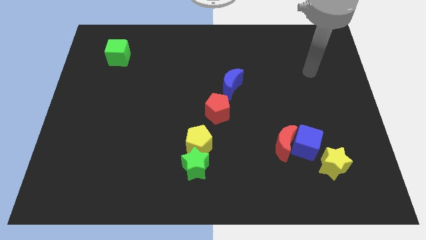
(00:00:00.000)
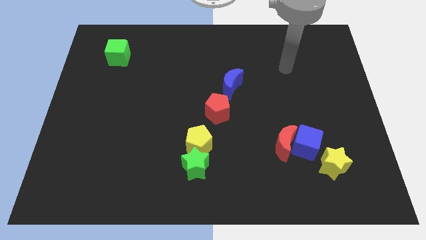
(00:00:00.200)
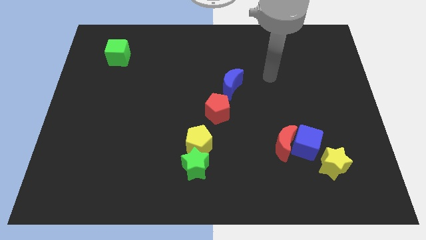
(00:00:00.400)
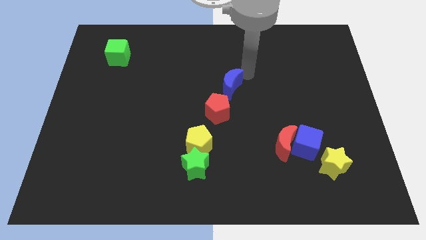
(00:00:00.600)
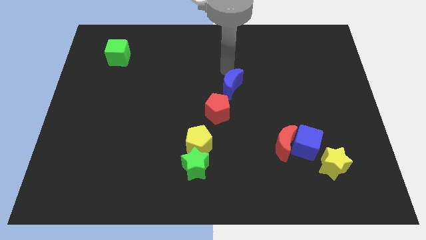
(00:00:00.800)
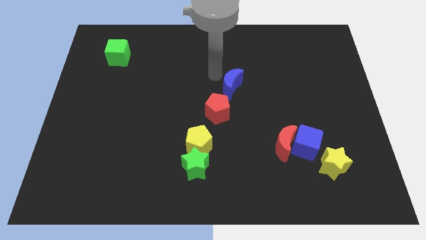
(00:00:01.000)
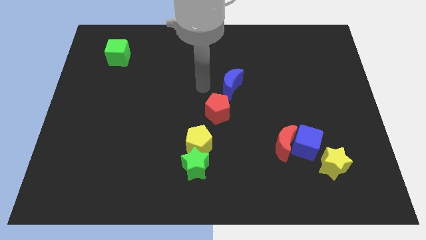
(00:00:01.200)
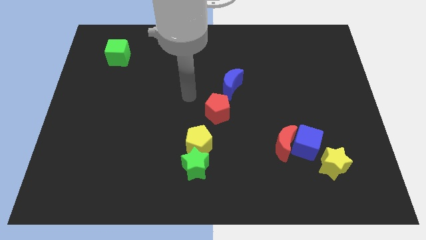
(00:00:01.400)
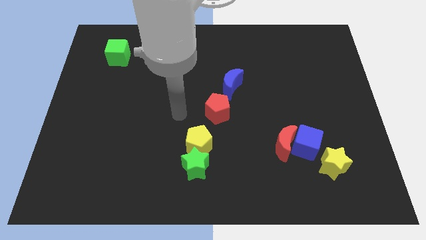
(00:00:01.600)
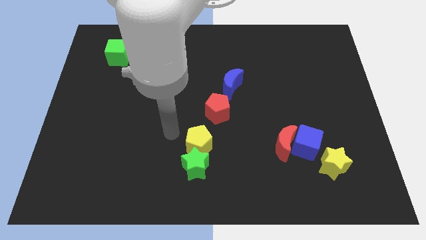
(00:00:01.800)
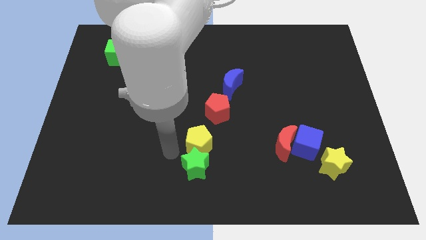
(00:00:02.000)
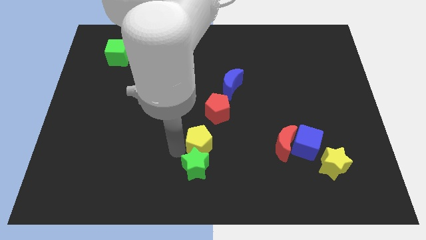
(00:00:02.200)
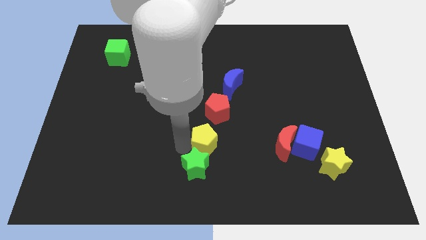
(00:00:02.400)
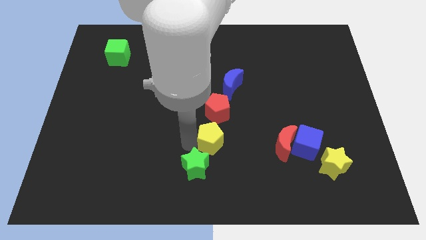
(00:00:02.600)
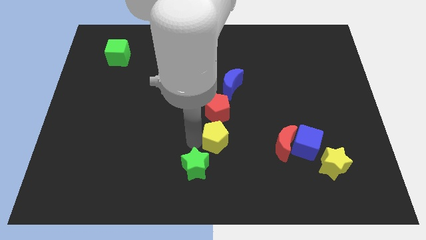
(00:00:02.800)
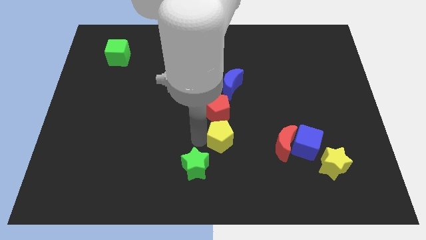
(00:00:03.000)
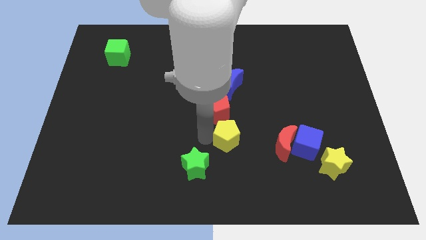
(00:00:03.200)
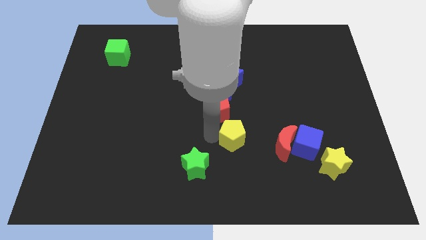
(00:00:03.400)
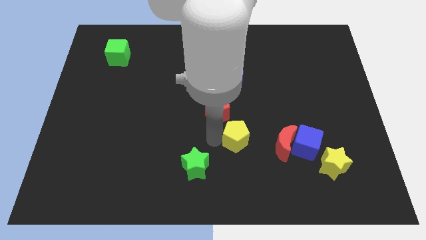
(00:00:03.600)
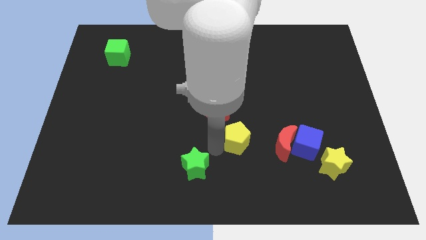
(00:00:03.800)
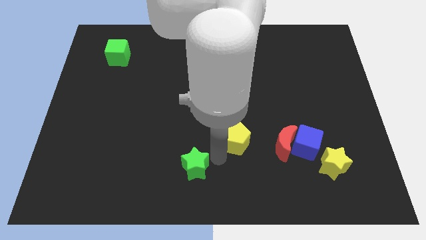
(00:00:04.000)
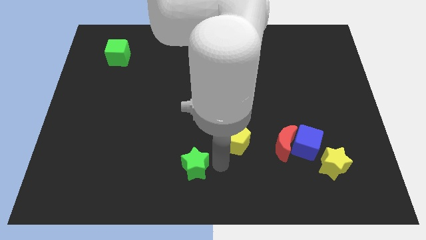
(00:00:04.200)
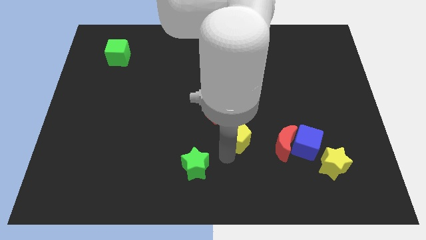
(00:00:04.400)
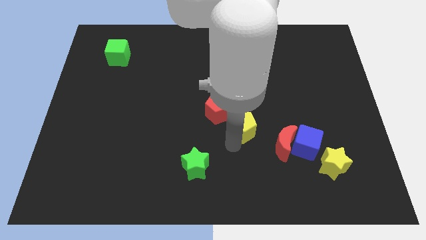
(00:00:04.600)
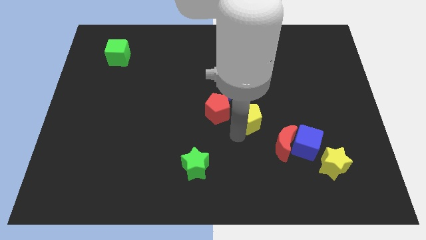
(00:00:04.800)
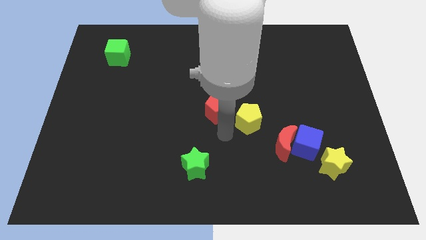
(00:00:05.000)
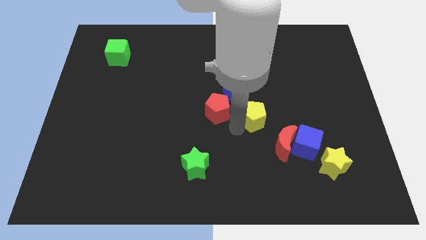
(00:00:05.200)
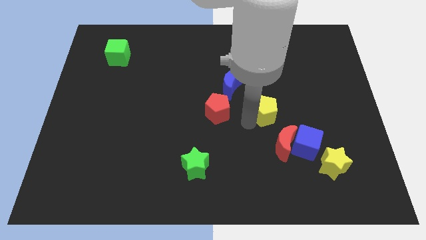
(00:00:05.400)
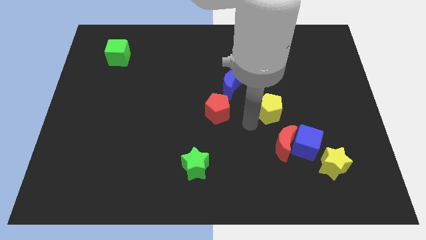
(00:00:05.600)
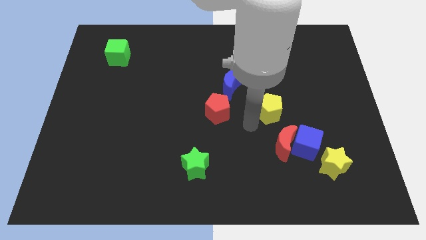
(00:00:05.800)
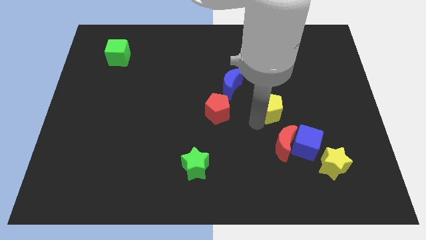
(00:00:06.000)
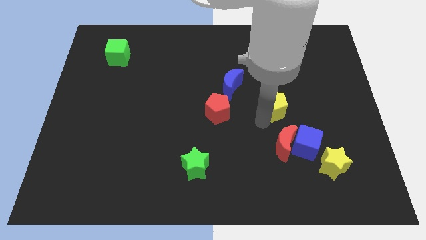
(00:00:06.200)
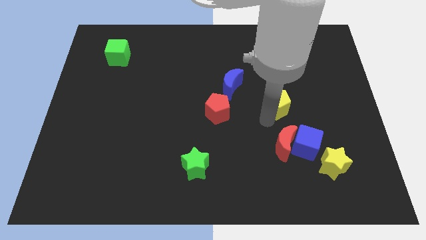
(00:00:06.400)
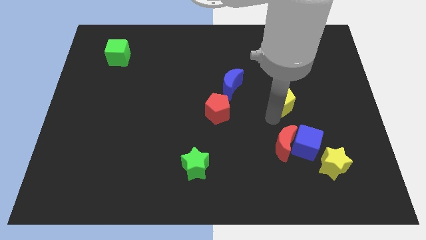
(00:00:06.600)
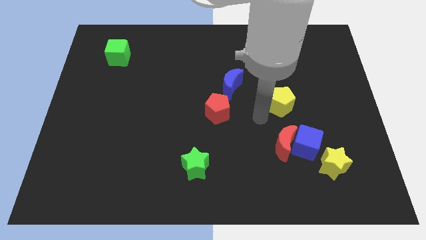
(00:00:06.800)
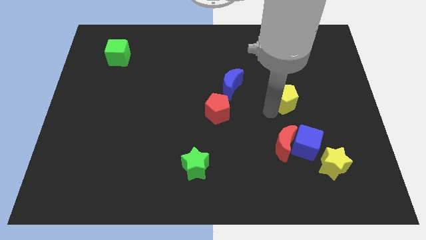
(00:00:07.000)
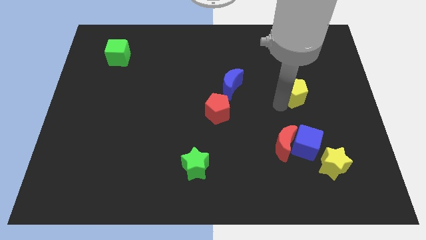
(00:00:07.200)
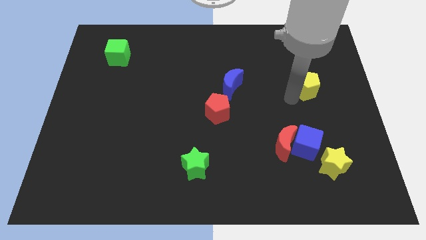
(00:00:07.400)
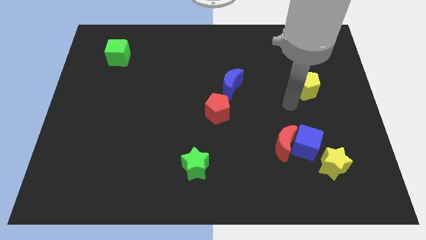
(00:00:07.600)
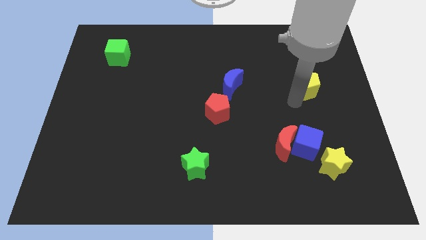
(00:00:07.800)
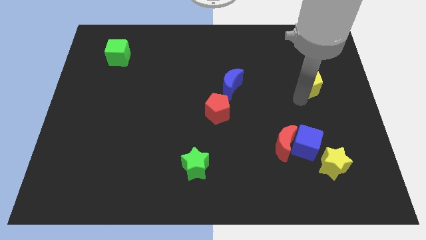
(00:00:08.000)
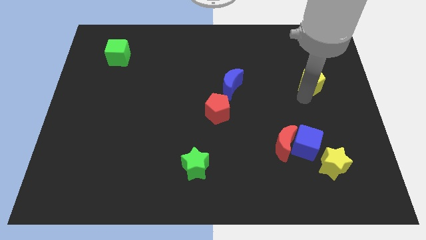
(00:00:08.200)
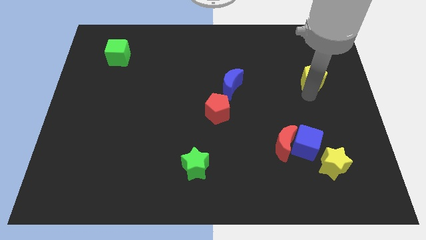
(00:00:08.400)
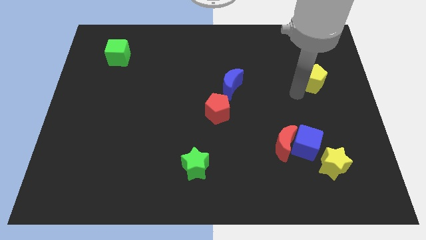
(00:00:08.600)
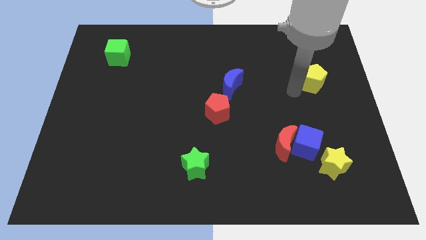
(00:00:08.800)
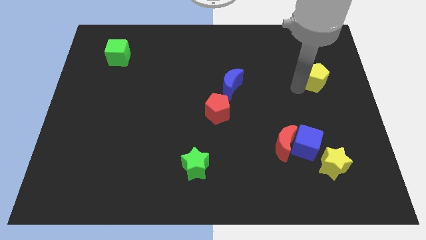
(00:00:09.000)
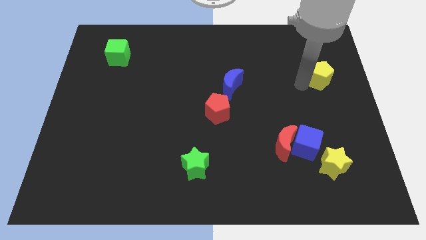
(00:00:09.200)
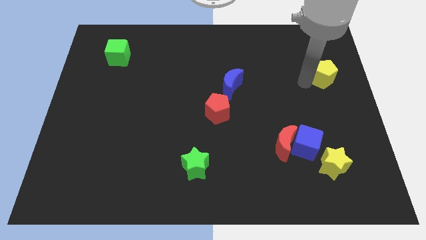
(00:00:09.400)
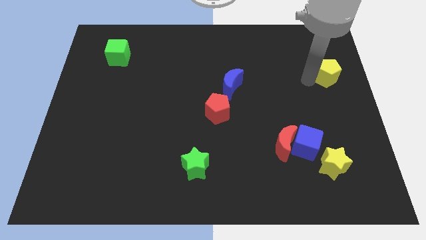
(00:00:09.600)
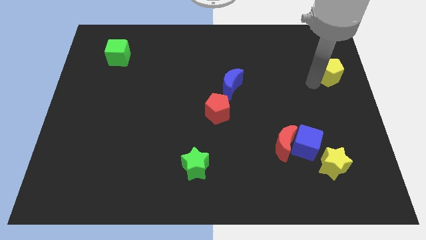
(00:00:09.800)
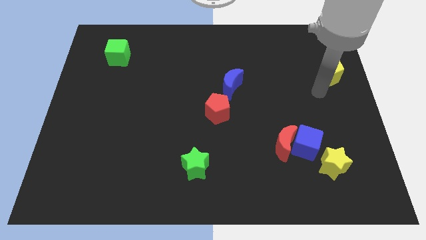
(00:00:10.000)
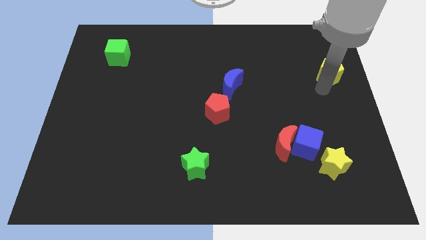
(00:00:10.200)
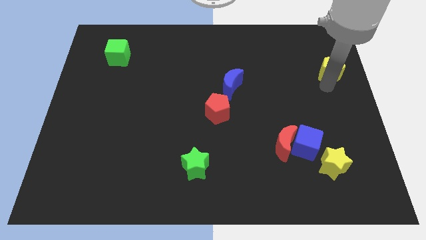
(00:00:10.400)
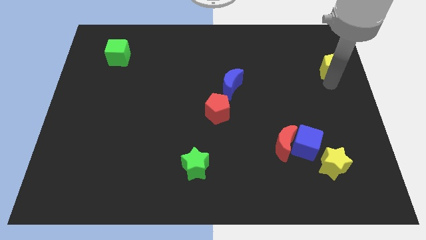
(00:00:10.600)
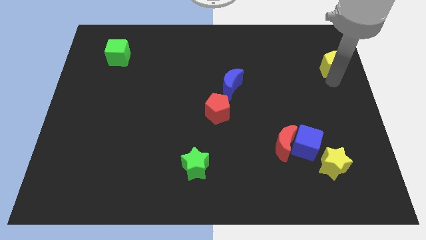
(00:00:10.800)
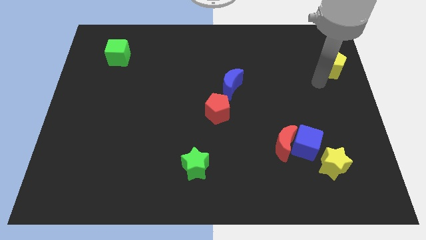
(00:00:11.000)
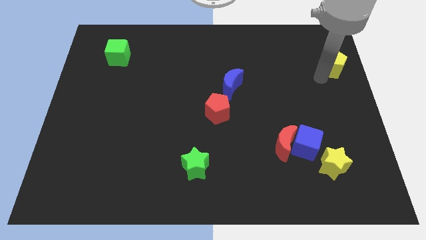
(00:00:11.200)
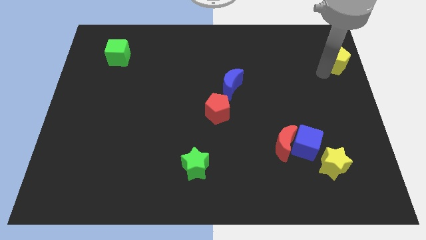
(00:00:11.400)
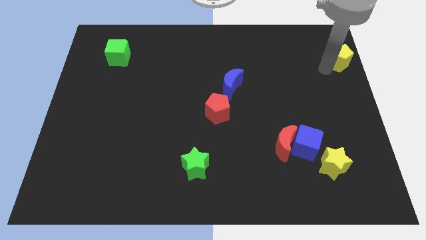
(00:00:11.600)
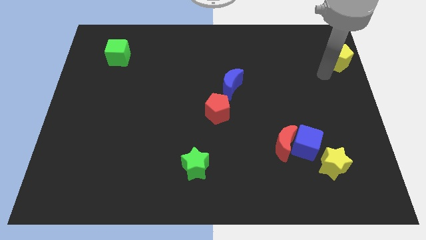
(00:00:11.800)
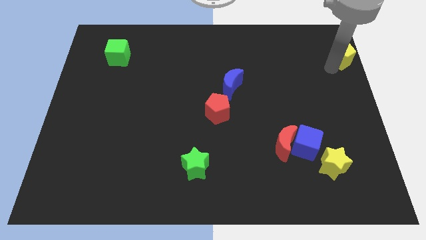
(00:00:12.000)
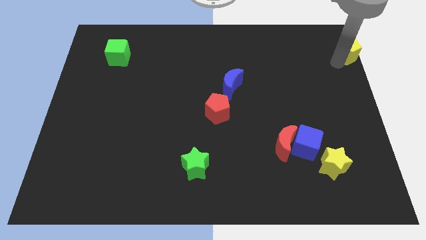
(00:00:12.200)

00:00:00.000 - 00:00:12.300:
slide the yellow pentagon to the top right
